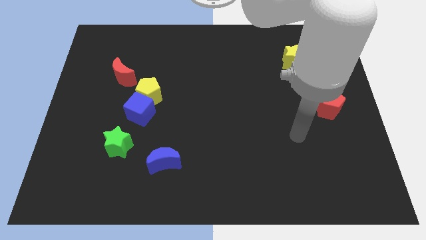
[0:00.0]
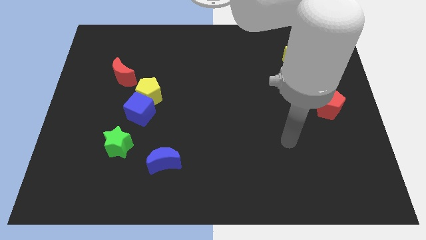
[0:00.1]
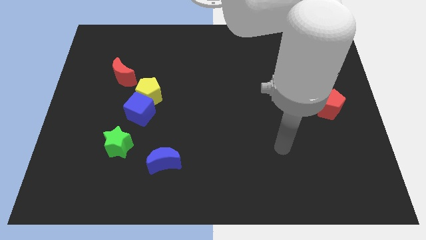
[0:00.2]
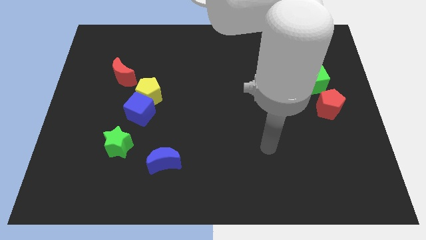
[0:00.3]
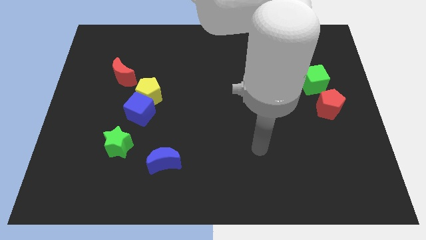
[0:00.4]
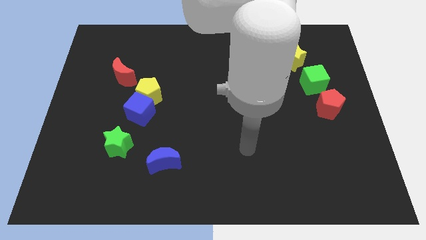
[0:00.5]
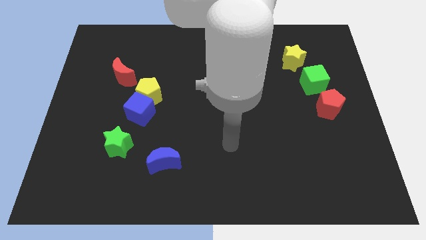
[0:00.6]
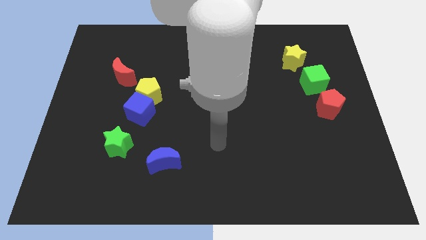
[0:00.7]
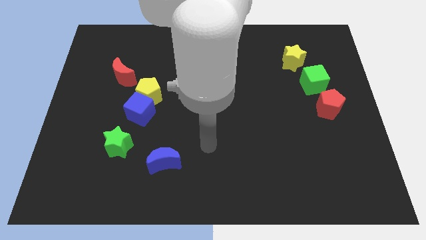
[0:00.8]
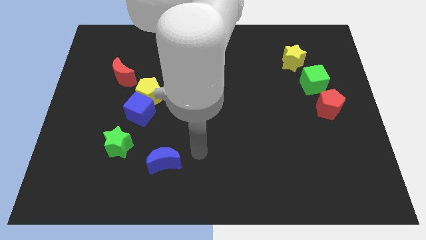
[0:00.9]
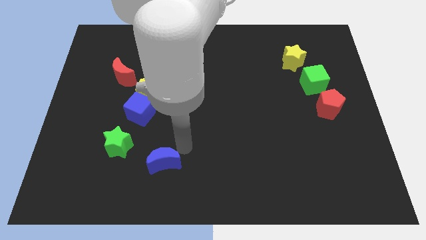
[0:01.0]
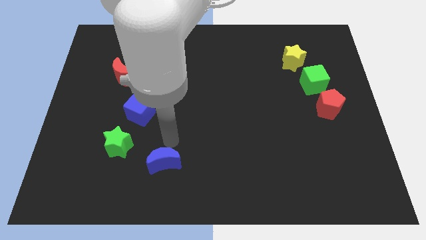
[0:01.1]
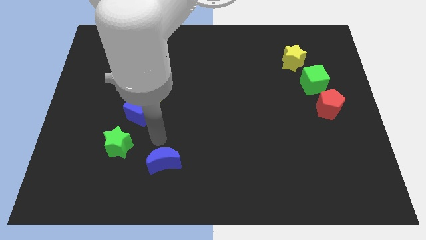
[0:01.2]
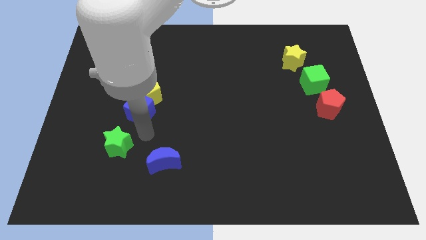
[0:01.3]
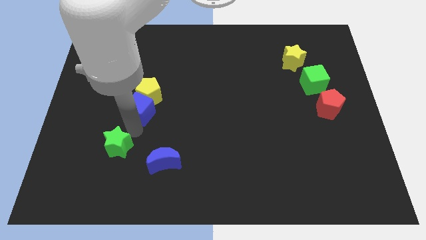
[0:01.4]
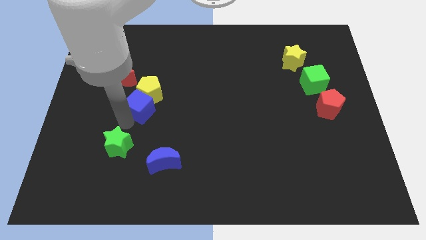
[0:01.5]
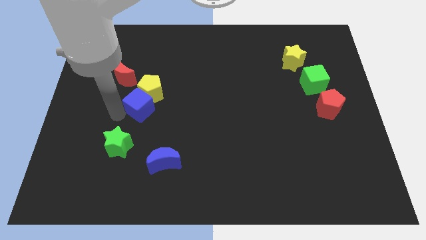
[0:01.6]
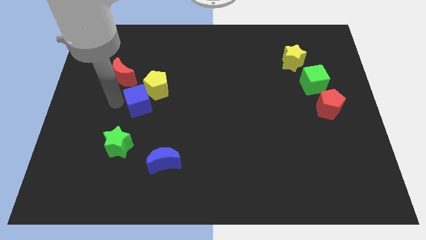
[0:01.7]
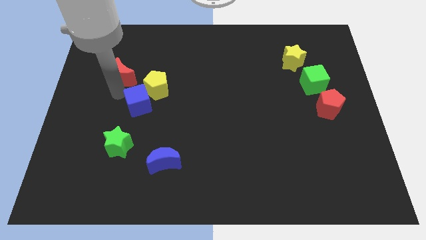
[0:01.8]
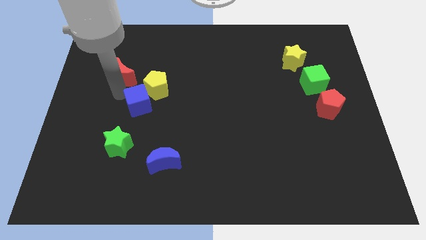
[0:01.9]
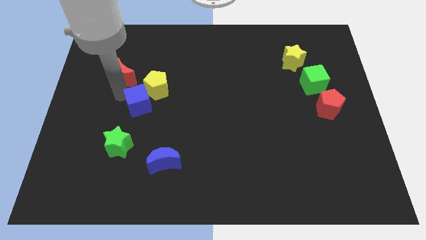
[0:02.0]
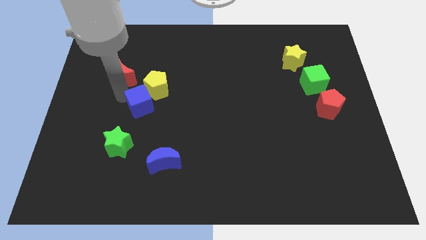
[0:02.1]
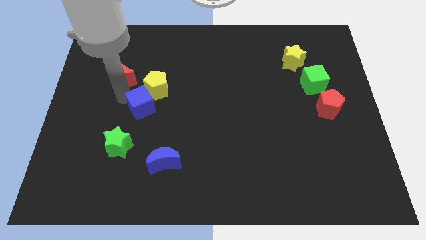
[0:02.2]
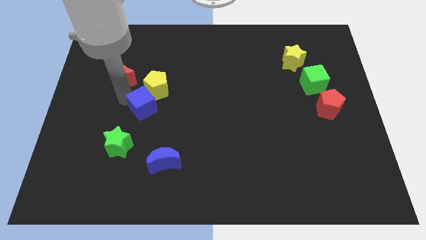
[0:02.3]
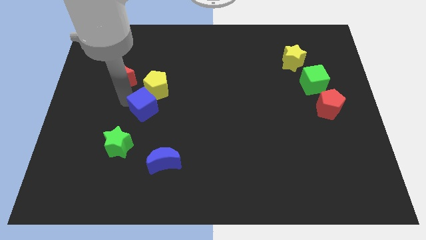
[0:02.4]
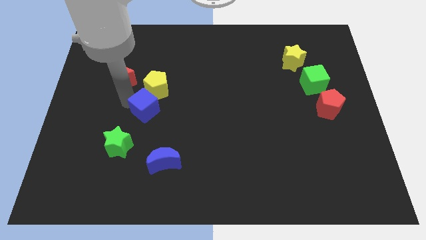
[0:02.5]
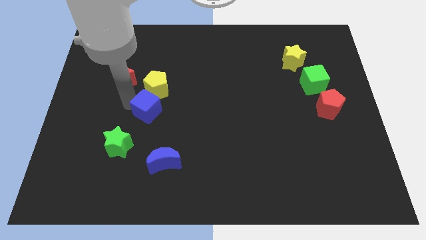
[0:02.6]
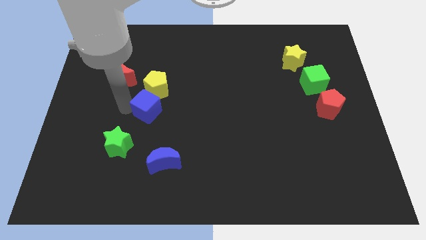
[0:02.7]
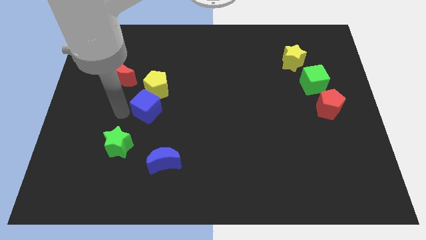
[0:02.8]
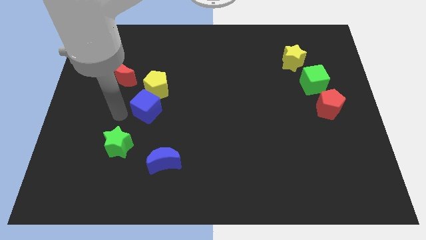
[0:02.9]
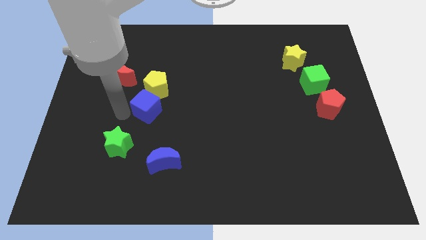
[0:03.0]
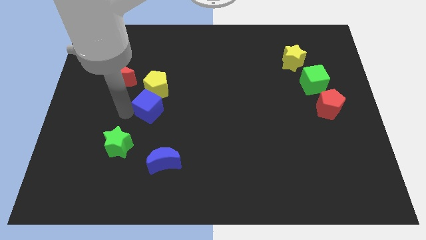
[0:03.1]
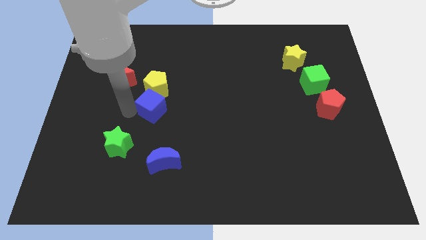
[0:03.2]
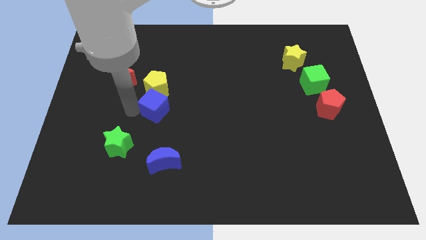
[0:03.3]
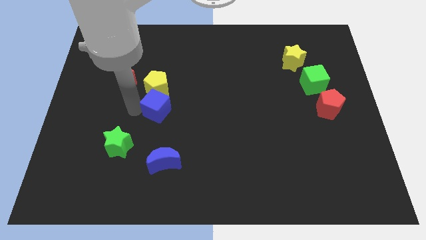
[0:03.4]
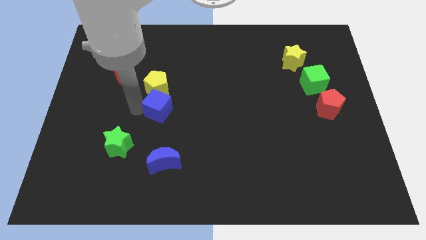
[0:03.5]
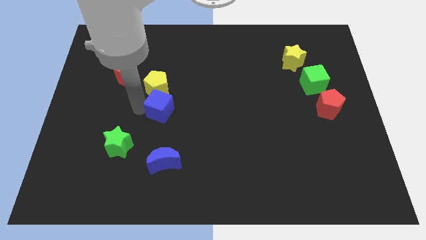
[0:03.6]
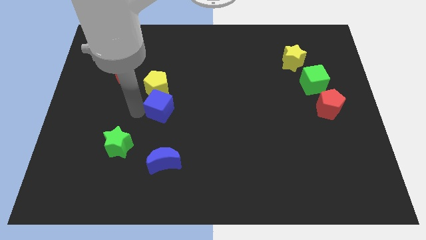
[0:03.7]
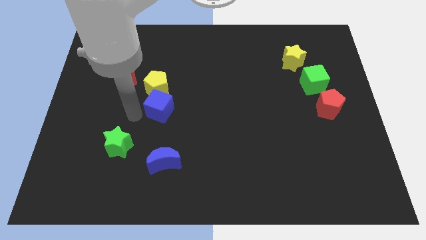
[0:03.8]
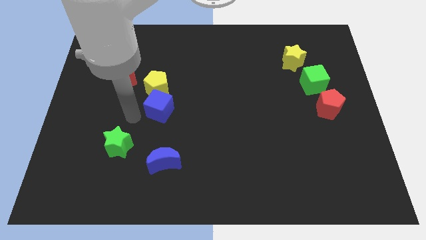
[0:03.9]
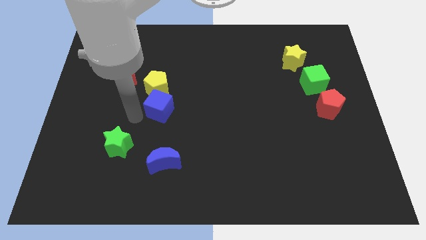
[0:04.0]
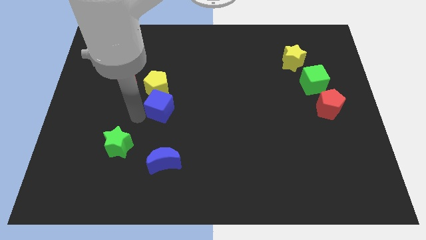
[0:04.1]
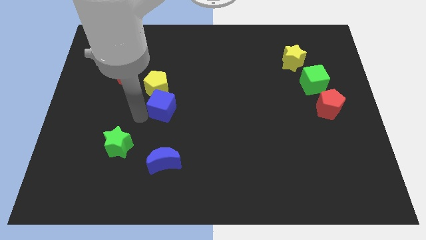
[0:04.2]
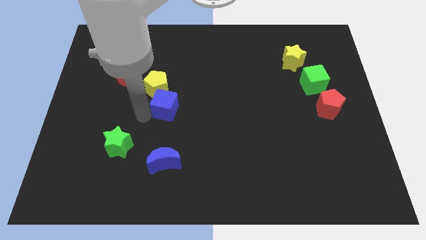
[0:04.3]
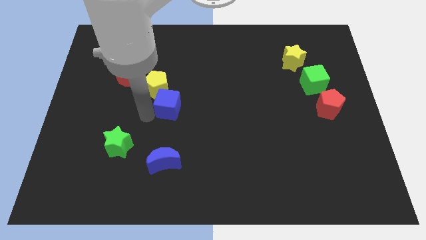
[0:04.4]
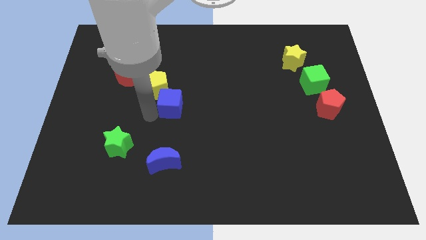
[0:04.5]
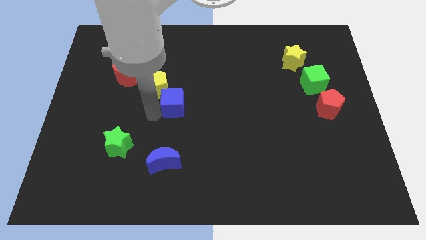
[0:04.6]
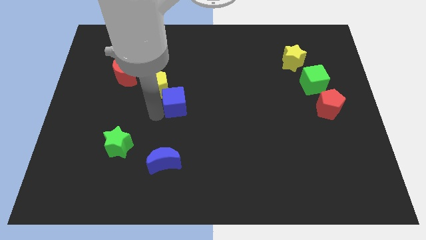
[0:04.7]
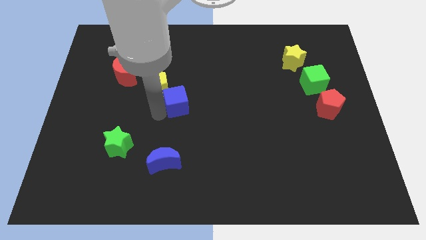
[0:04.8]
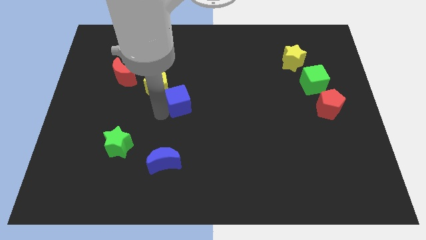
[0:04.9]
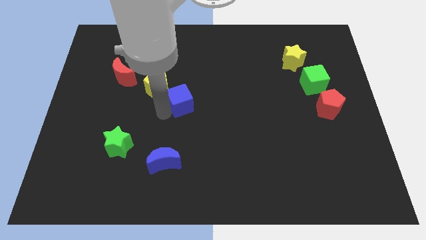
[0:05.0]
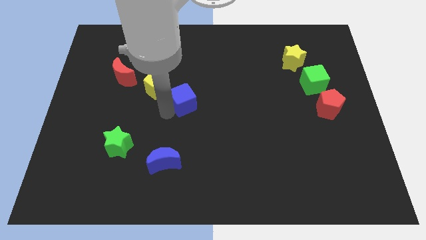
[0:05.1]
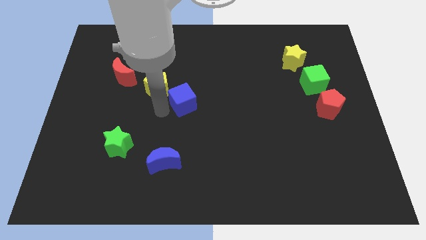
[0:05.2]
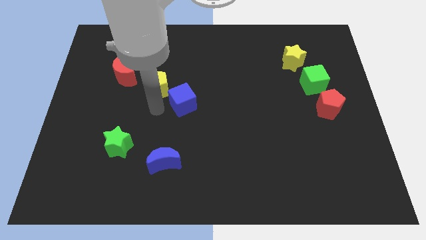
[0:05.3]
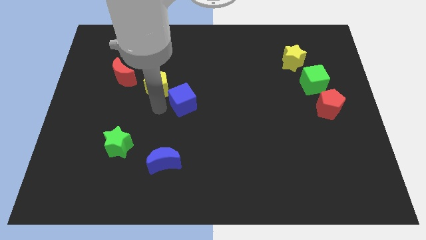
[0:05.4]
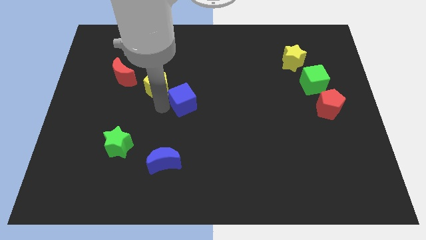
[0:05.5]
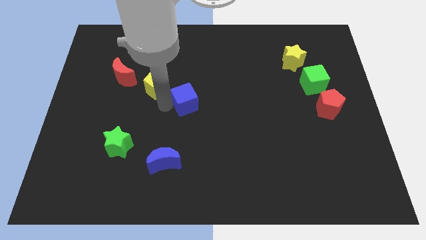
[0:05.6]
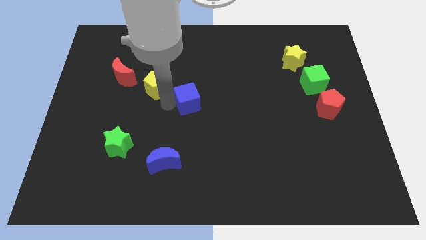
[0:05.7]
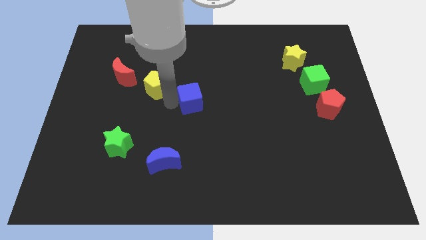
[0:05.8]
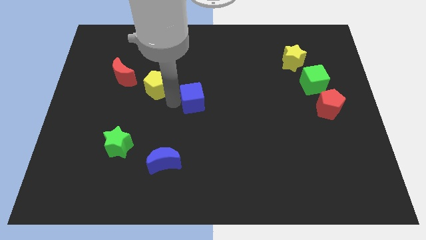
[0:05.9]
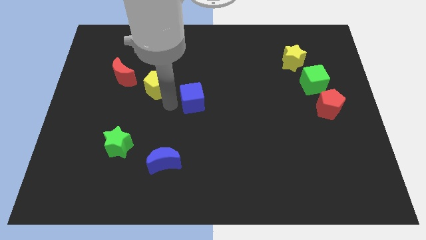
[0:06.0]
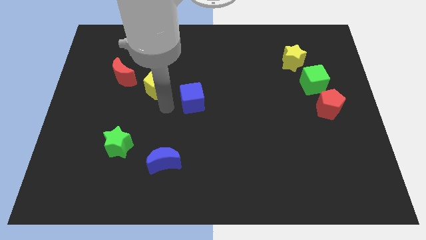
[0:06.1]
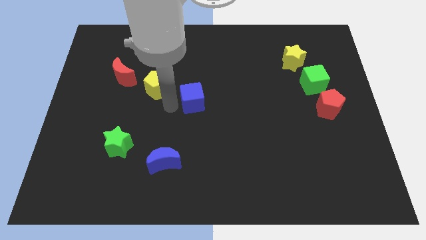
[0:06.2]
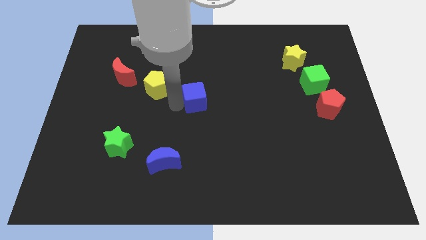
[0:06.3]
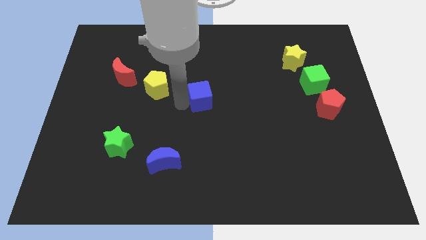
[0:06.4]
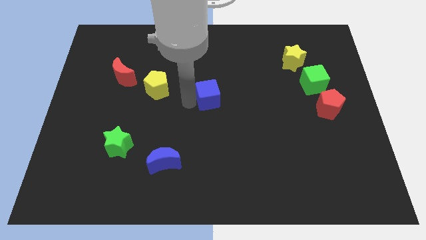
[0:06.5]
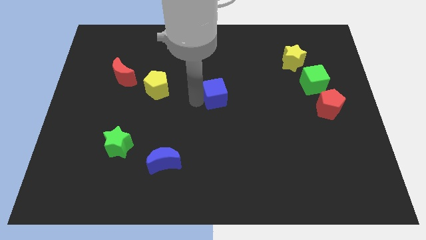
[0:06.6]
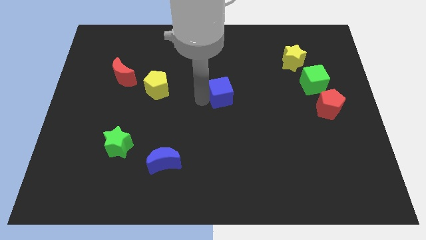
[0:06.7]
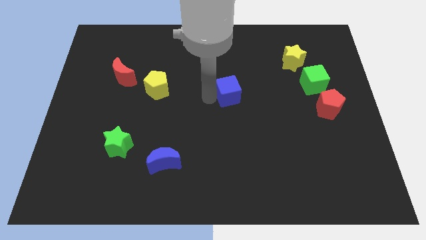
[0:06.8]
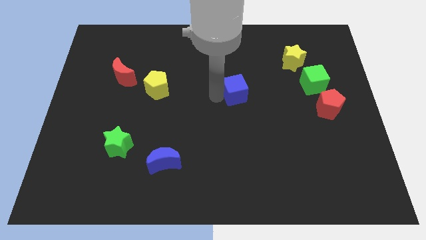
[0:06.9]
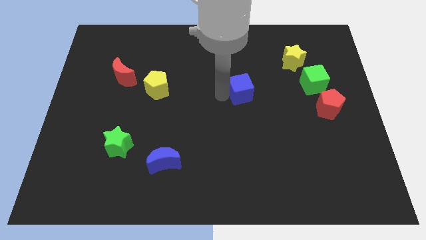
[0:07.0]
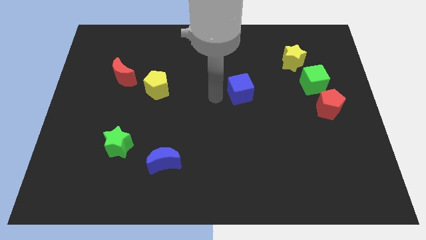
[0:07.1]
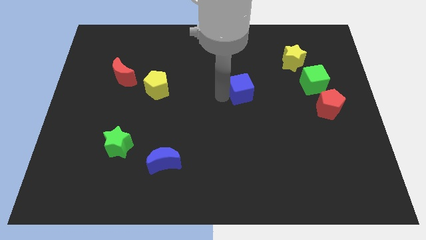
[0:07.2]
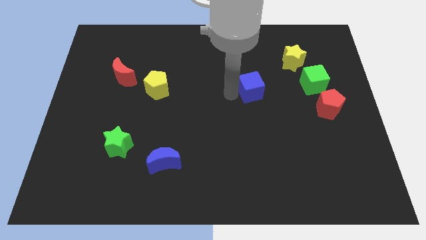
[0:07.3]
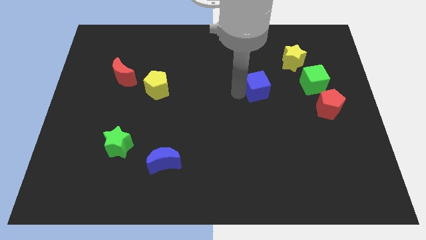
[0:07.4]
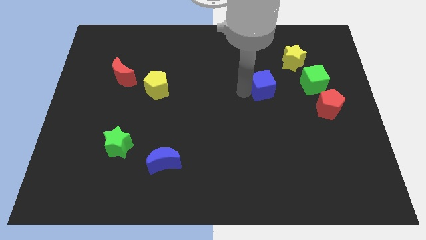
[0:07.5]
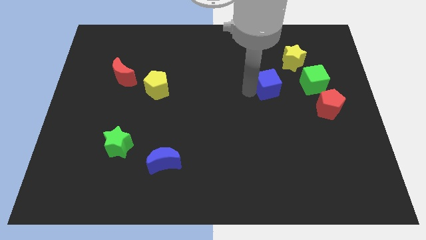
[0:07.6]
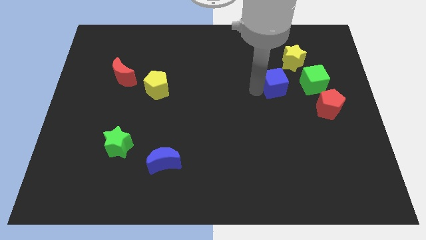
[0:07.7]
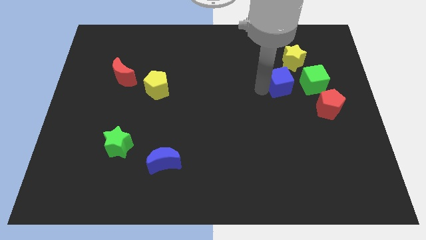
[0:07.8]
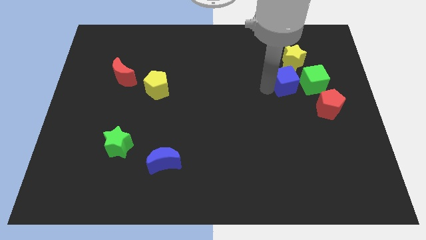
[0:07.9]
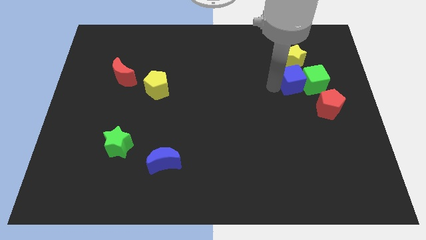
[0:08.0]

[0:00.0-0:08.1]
push the blue cube close to the green cube
